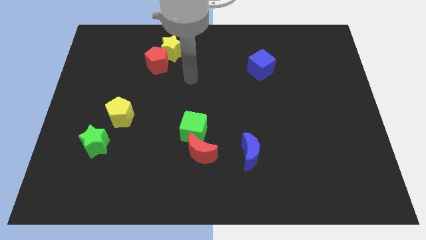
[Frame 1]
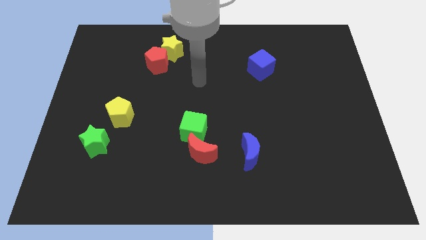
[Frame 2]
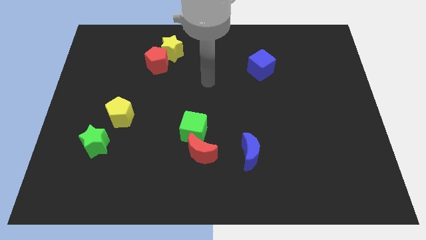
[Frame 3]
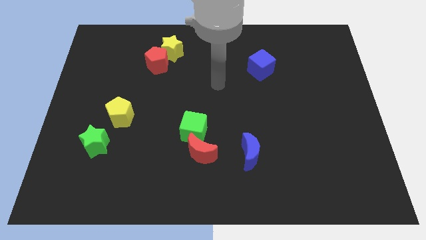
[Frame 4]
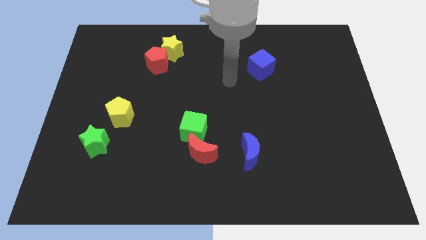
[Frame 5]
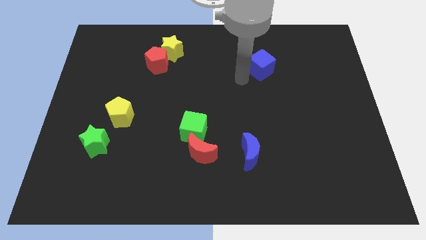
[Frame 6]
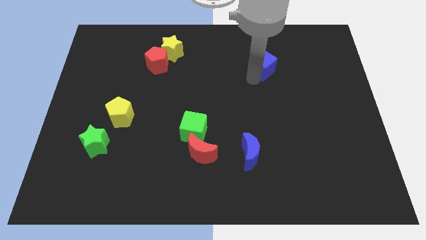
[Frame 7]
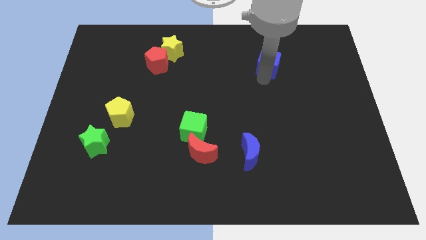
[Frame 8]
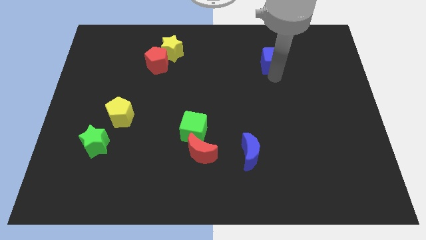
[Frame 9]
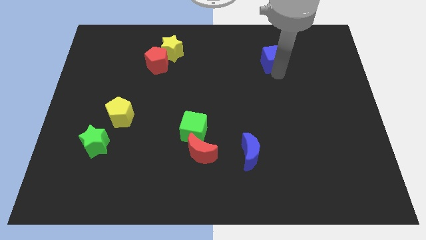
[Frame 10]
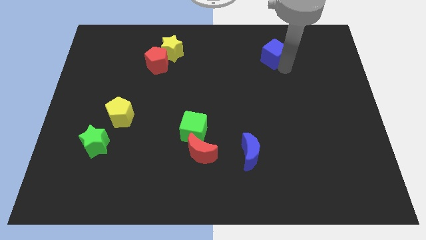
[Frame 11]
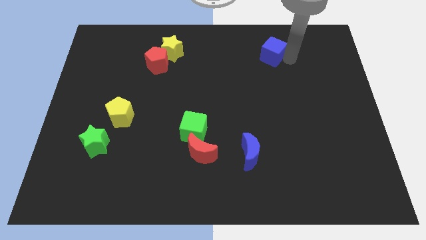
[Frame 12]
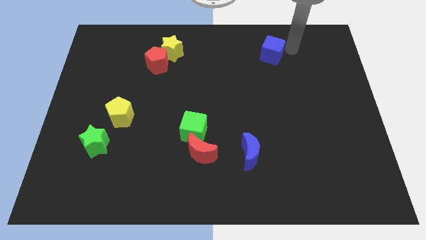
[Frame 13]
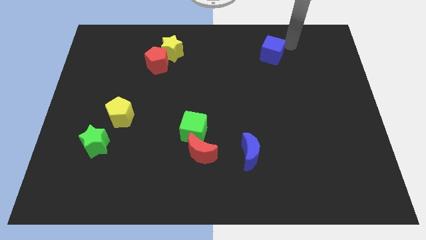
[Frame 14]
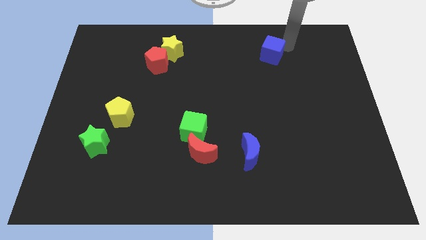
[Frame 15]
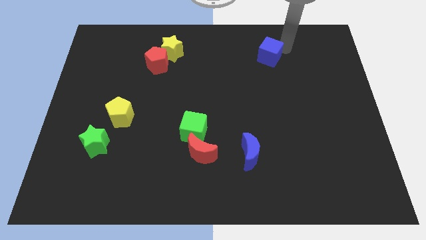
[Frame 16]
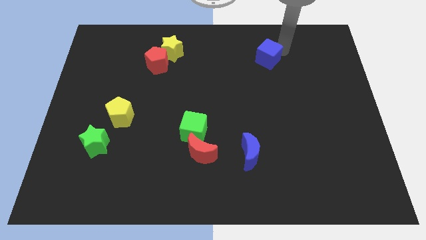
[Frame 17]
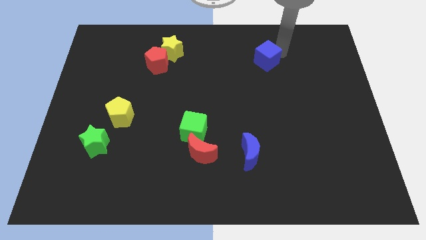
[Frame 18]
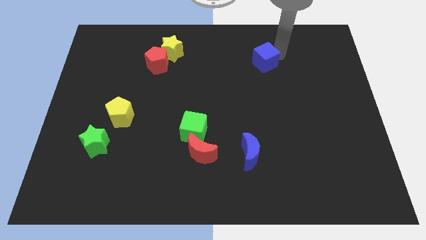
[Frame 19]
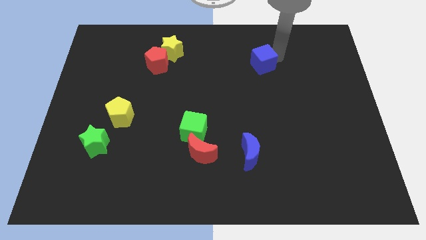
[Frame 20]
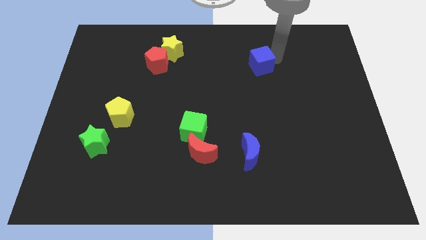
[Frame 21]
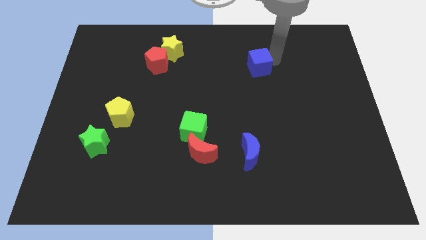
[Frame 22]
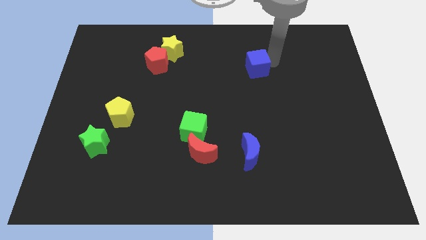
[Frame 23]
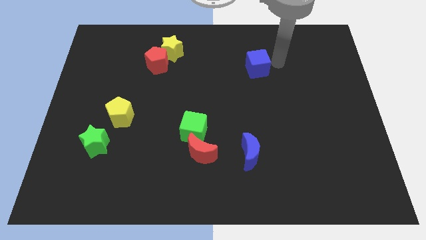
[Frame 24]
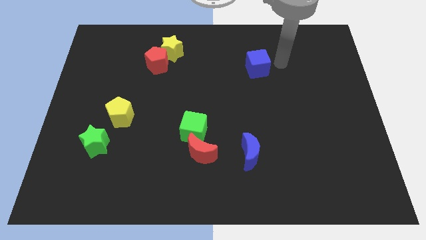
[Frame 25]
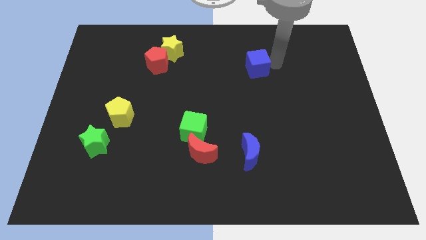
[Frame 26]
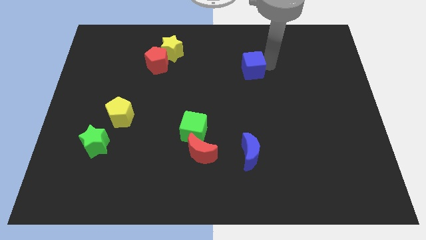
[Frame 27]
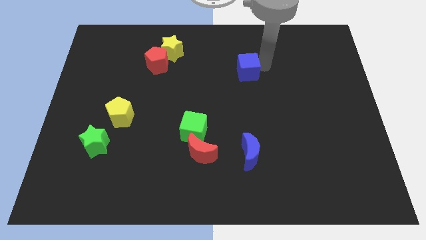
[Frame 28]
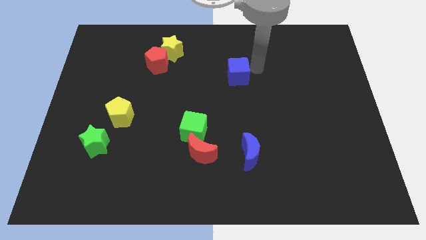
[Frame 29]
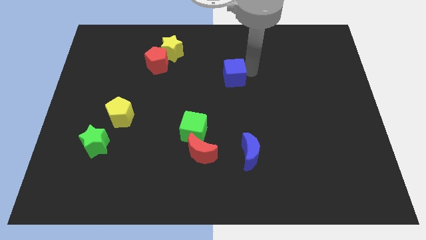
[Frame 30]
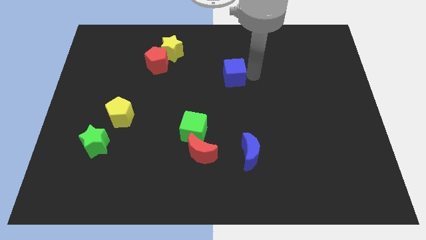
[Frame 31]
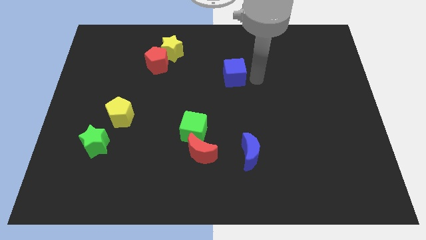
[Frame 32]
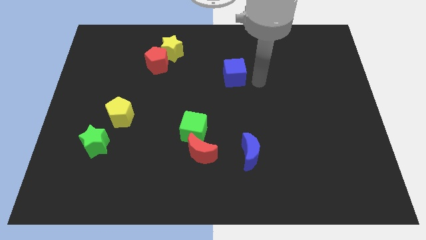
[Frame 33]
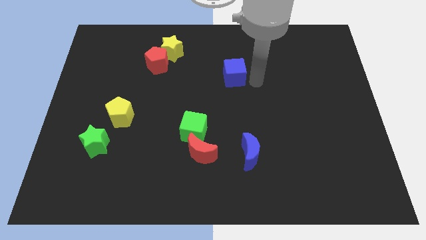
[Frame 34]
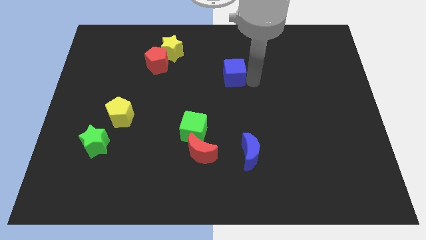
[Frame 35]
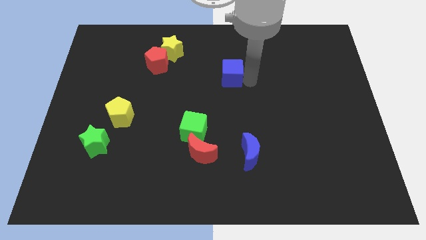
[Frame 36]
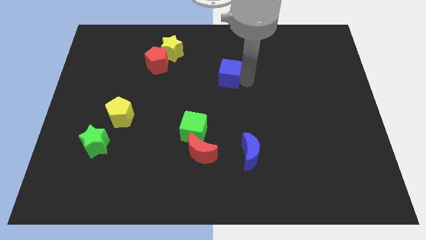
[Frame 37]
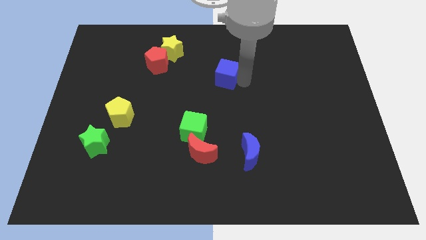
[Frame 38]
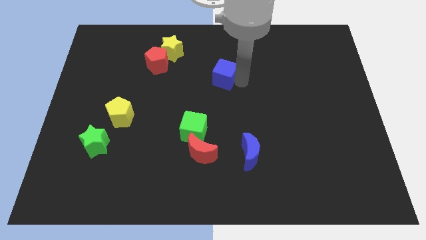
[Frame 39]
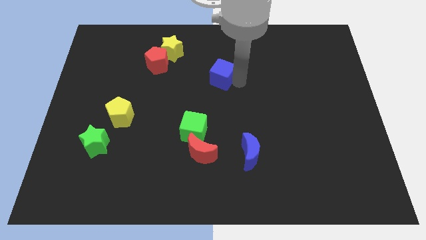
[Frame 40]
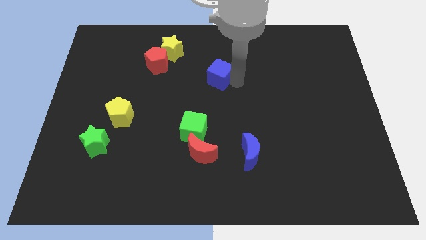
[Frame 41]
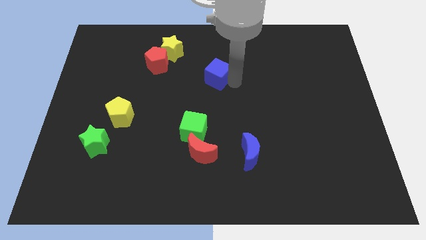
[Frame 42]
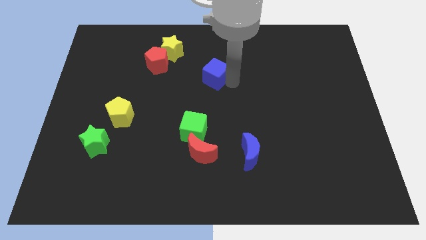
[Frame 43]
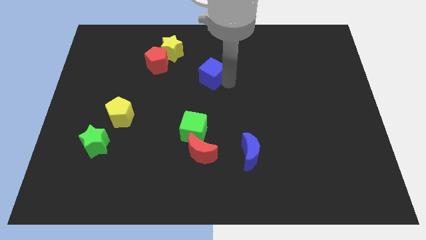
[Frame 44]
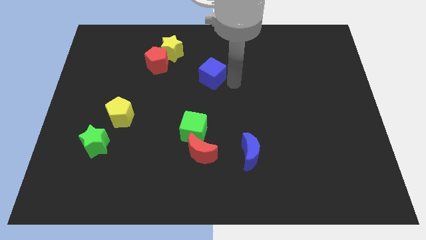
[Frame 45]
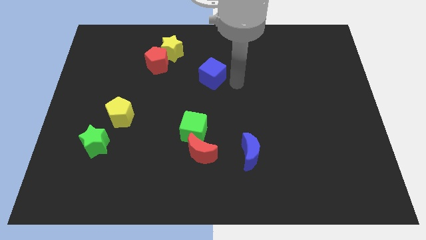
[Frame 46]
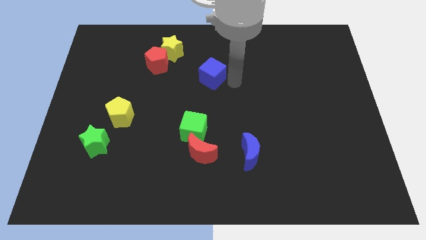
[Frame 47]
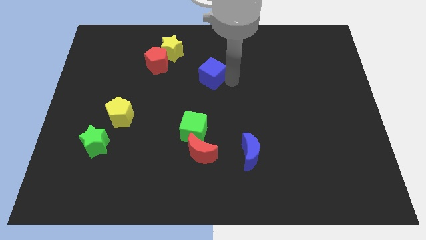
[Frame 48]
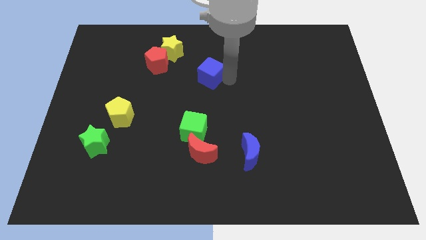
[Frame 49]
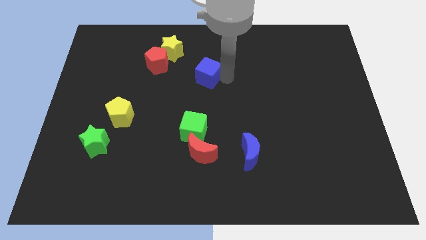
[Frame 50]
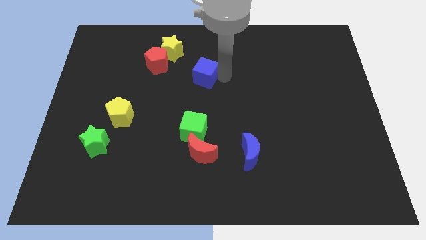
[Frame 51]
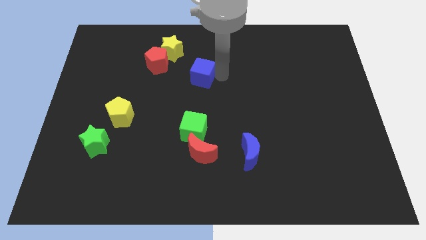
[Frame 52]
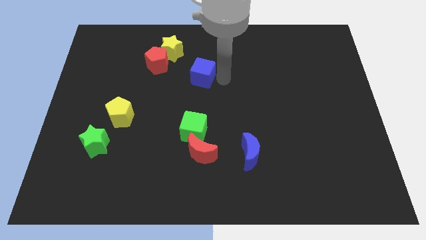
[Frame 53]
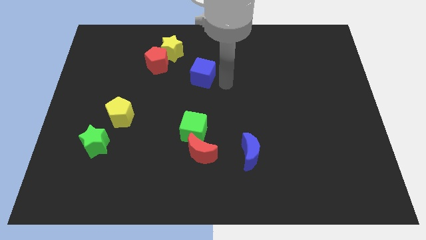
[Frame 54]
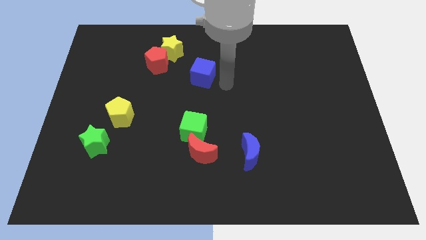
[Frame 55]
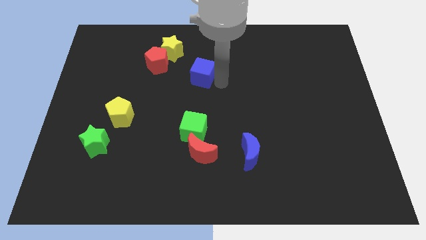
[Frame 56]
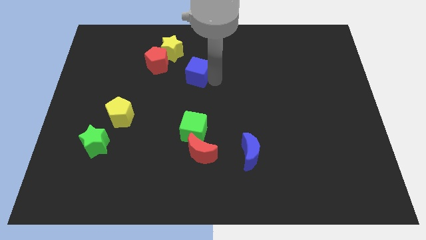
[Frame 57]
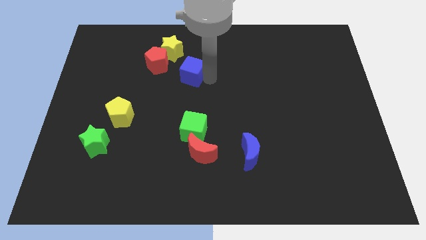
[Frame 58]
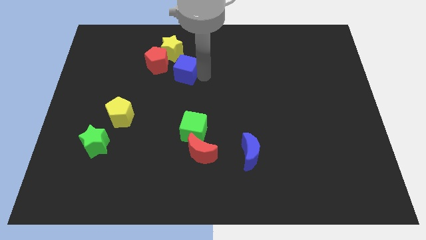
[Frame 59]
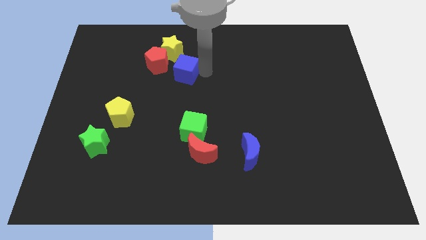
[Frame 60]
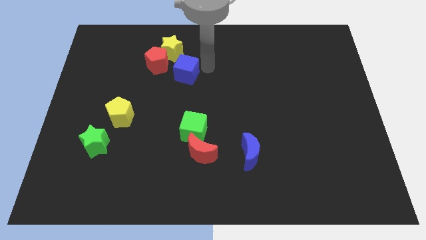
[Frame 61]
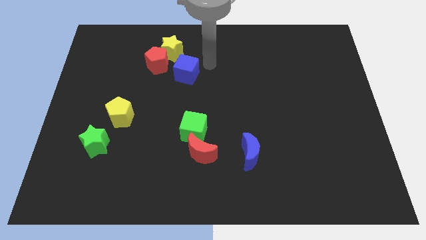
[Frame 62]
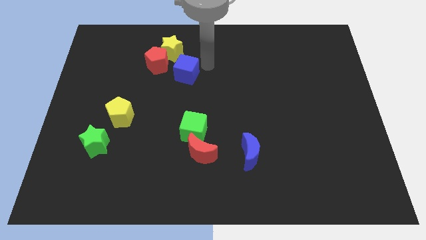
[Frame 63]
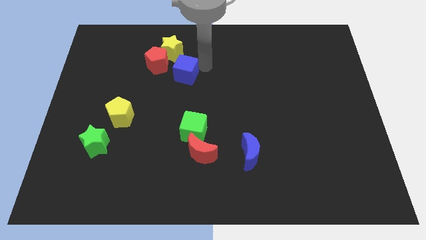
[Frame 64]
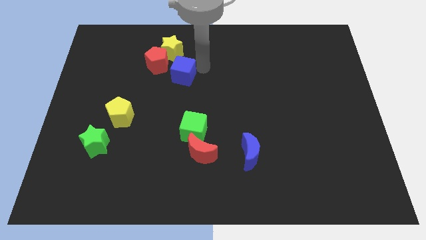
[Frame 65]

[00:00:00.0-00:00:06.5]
push the blue cube to the left

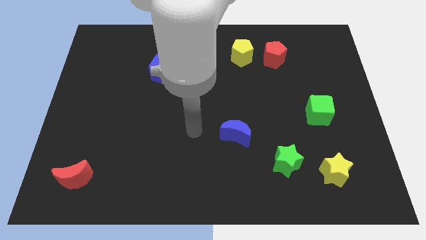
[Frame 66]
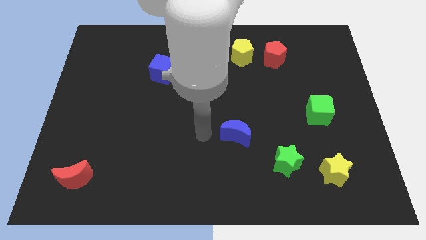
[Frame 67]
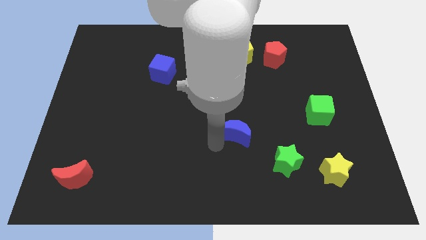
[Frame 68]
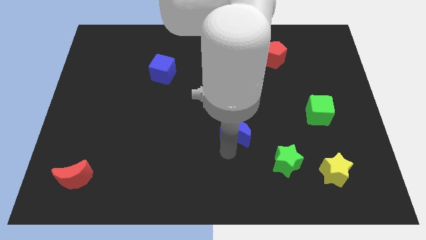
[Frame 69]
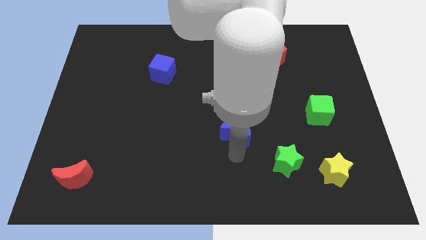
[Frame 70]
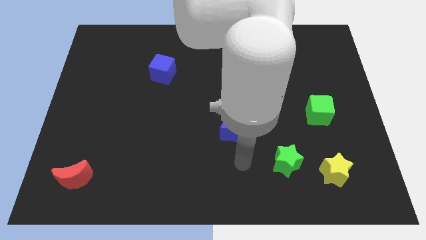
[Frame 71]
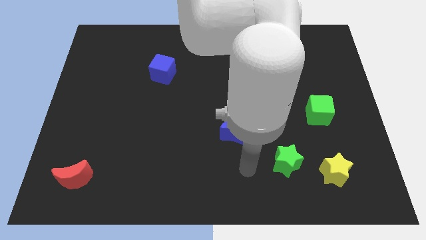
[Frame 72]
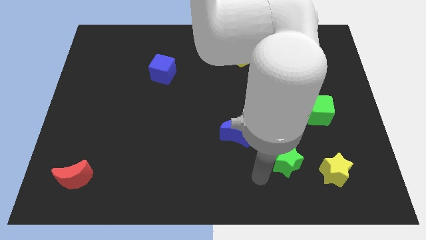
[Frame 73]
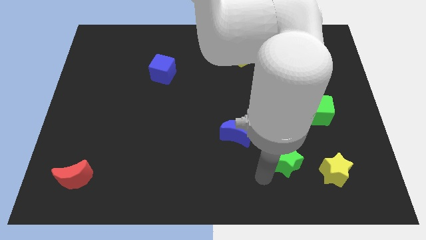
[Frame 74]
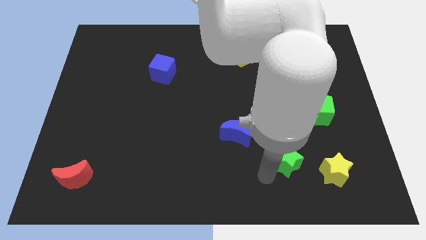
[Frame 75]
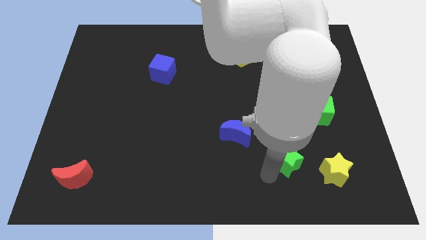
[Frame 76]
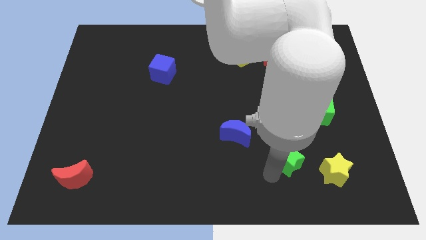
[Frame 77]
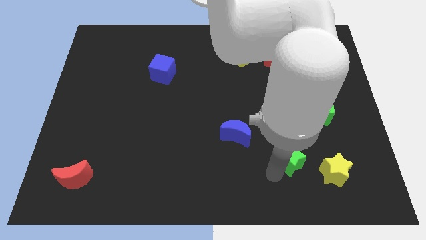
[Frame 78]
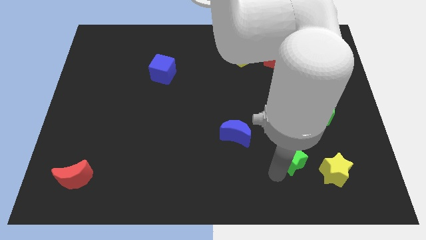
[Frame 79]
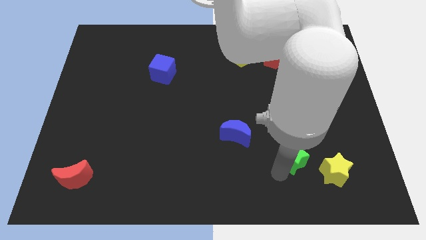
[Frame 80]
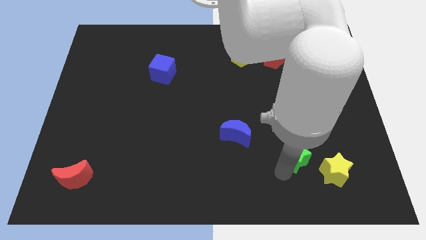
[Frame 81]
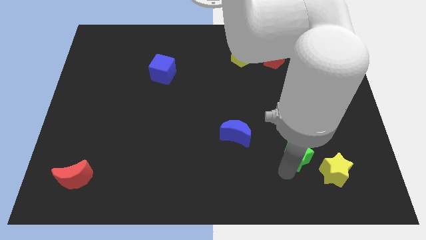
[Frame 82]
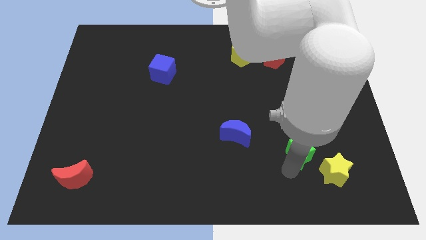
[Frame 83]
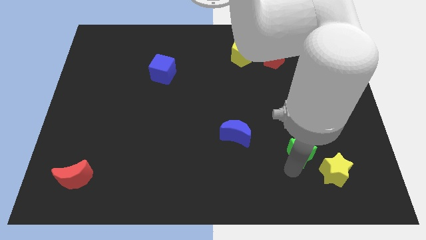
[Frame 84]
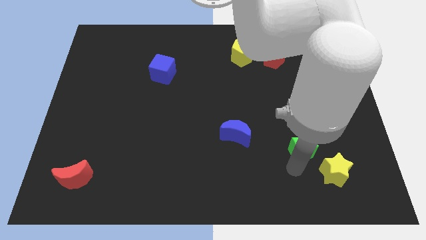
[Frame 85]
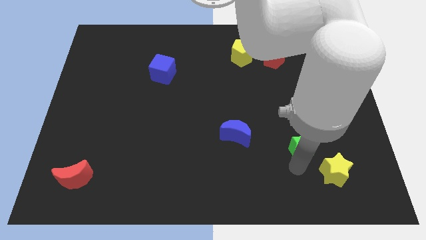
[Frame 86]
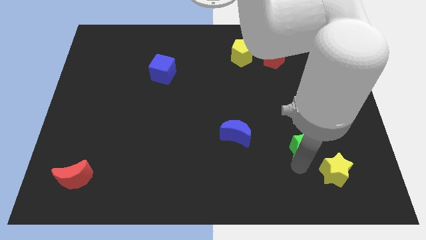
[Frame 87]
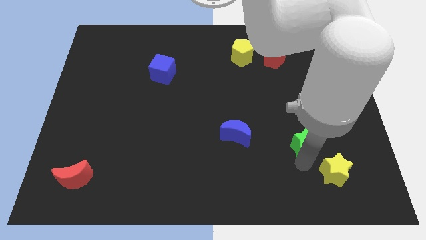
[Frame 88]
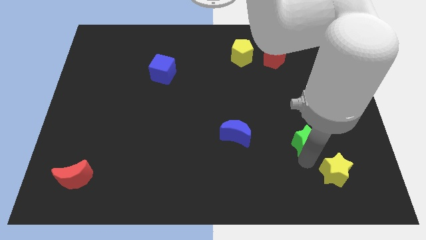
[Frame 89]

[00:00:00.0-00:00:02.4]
slightly slide the green star up and right diagonally
